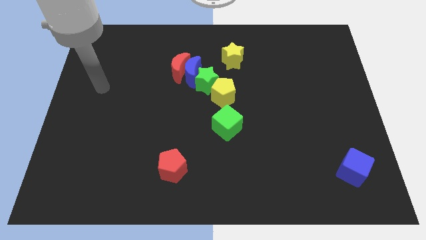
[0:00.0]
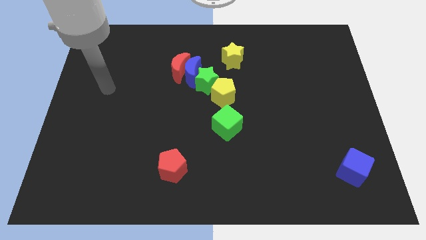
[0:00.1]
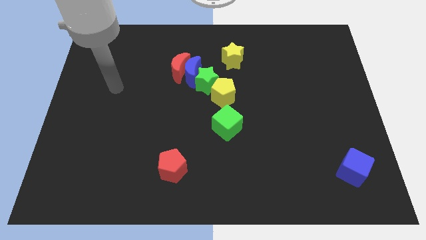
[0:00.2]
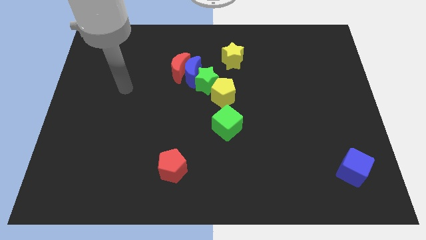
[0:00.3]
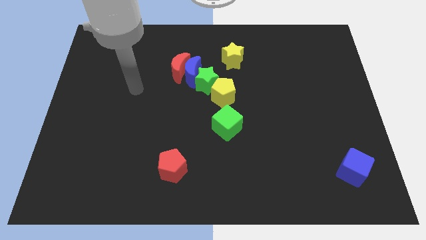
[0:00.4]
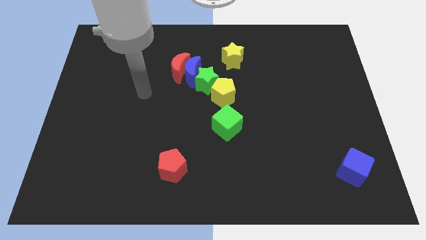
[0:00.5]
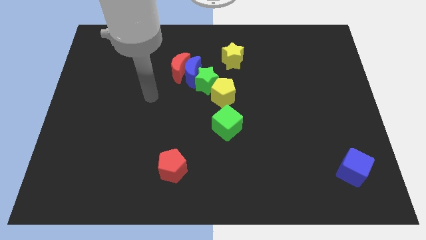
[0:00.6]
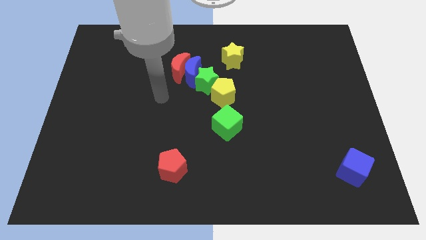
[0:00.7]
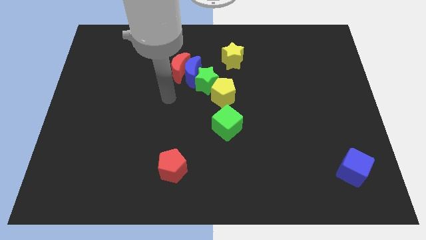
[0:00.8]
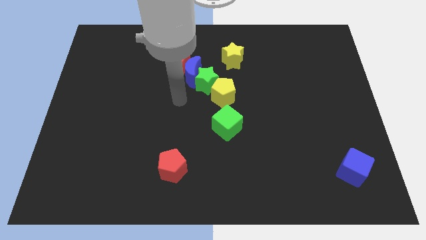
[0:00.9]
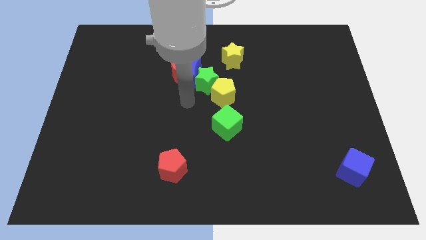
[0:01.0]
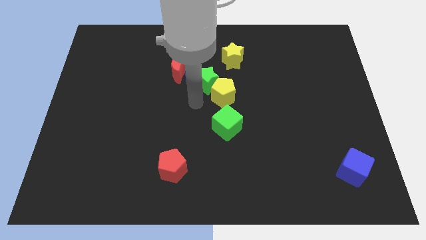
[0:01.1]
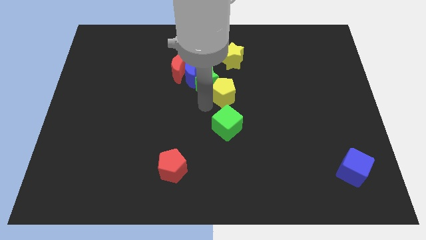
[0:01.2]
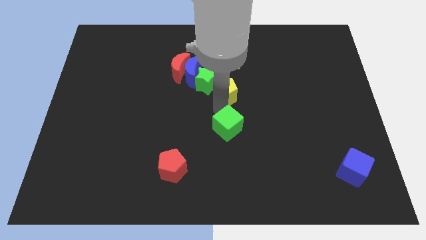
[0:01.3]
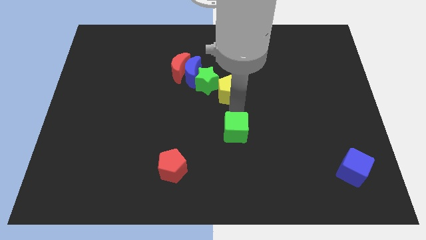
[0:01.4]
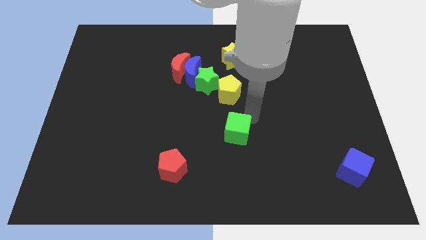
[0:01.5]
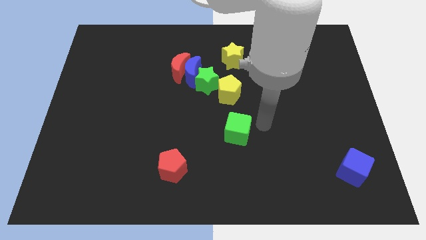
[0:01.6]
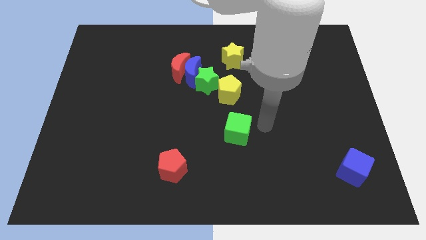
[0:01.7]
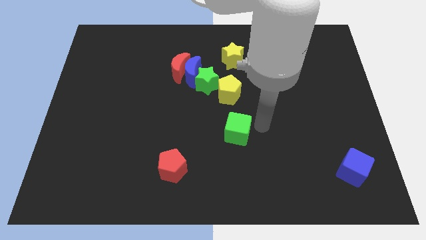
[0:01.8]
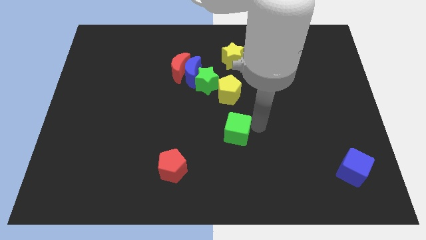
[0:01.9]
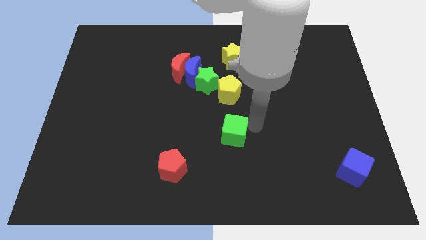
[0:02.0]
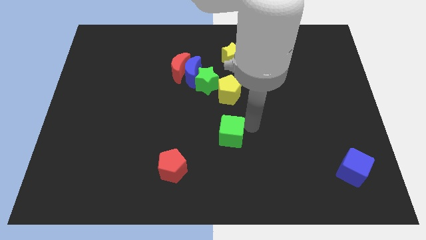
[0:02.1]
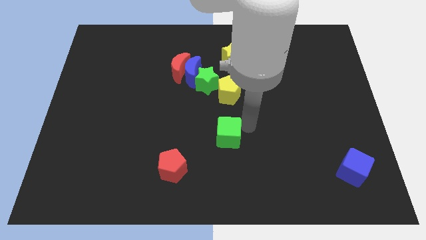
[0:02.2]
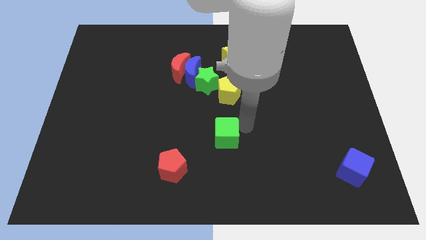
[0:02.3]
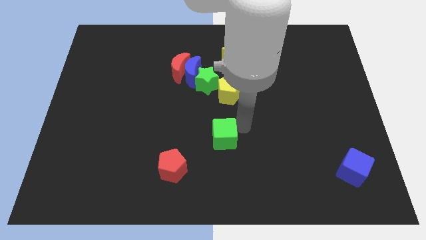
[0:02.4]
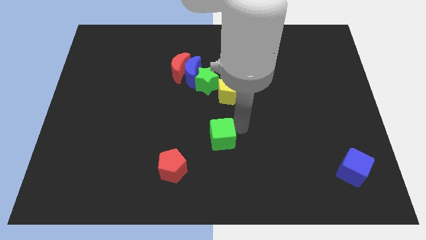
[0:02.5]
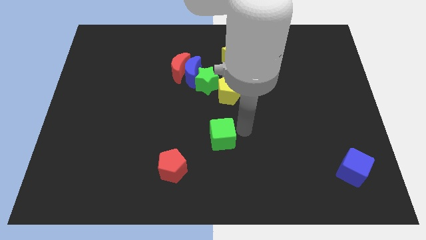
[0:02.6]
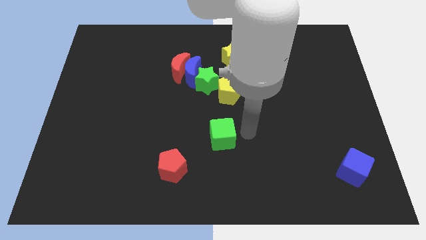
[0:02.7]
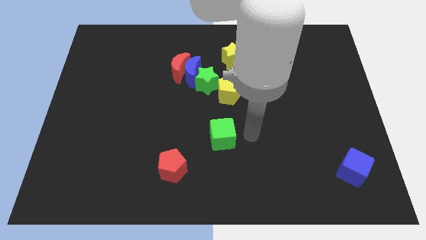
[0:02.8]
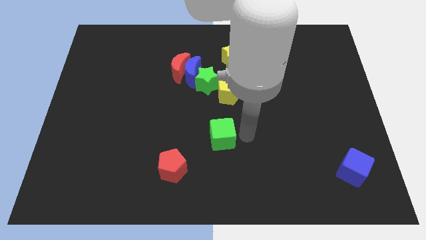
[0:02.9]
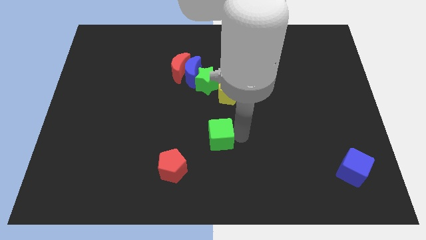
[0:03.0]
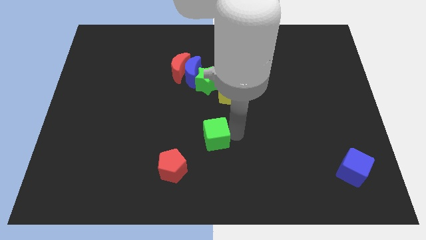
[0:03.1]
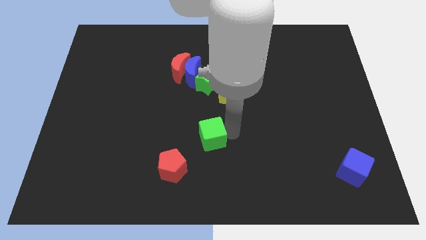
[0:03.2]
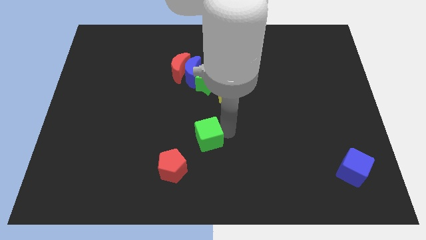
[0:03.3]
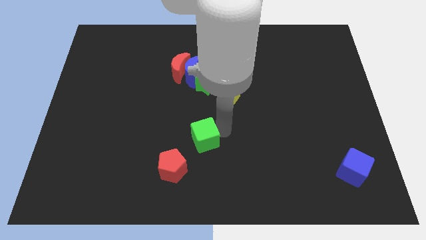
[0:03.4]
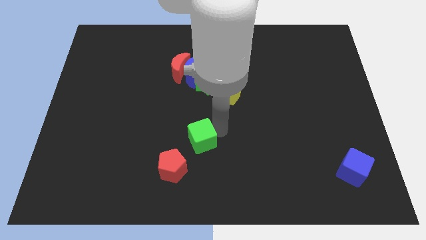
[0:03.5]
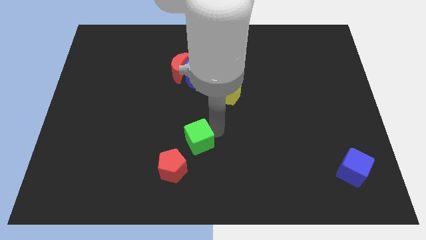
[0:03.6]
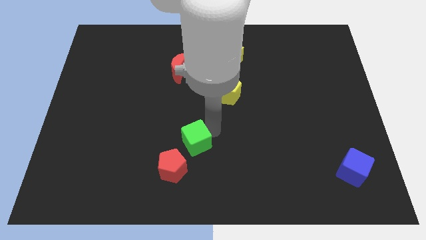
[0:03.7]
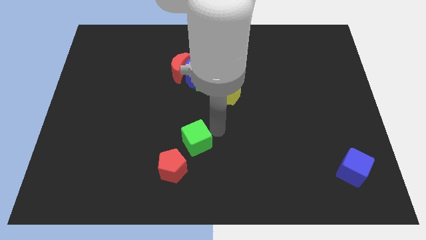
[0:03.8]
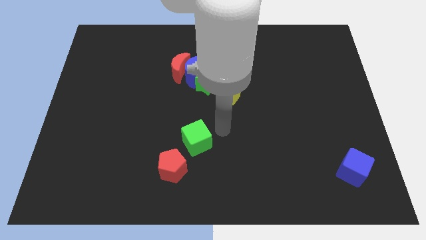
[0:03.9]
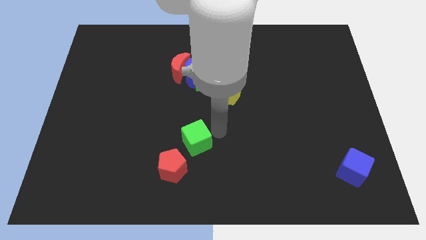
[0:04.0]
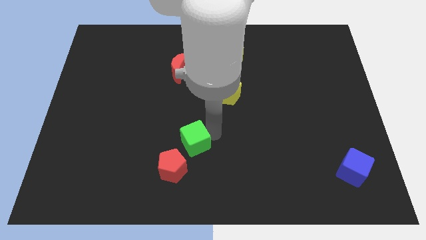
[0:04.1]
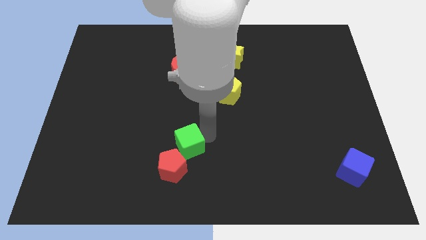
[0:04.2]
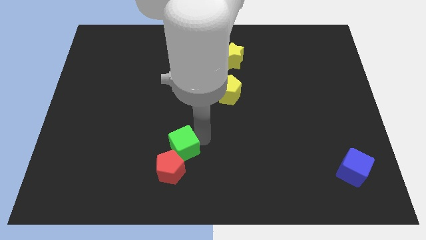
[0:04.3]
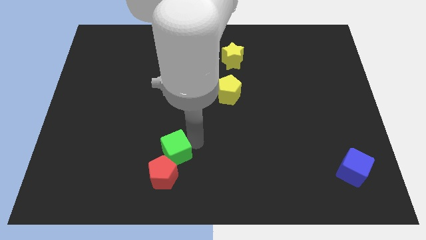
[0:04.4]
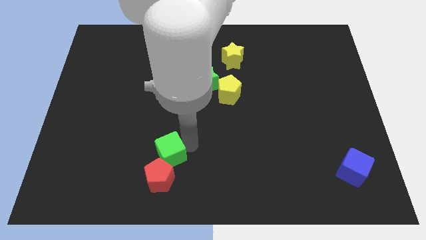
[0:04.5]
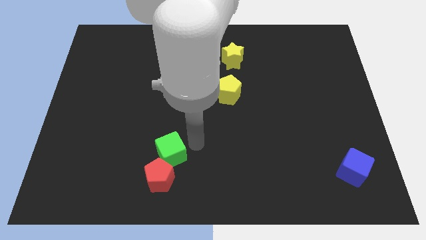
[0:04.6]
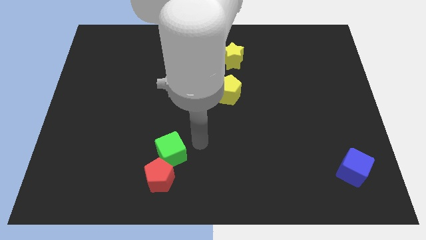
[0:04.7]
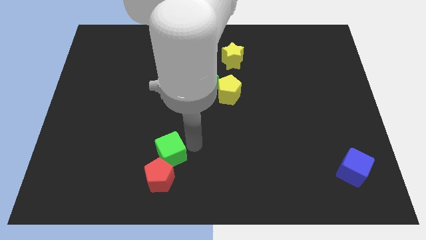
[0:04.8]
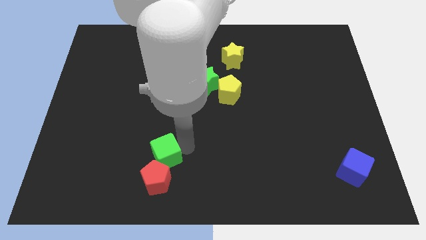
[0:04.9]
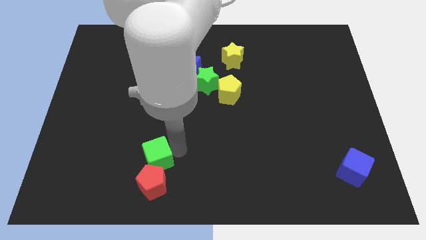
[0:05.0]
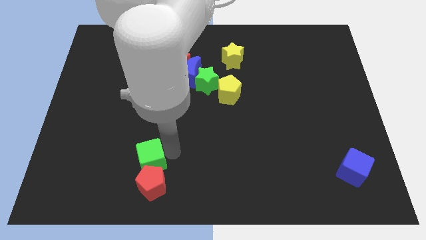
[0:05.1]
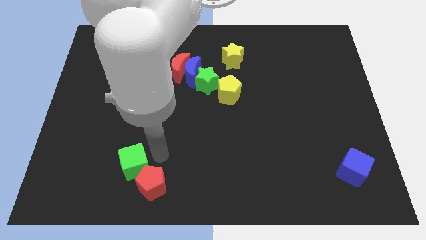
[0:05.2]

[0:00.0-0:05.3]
put the green cube left of the red pentagon

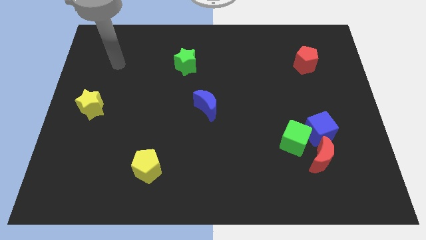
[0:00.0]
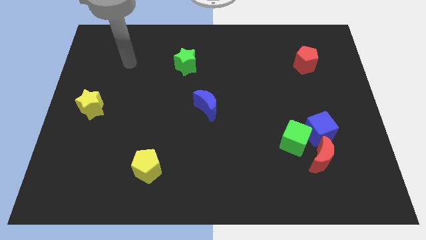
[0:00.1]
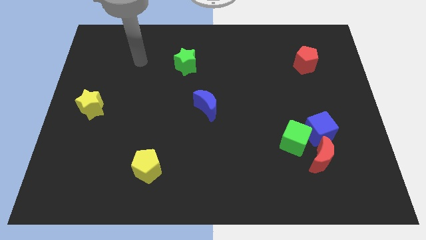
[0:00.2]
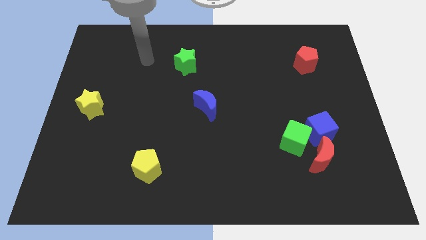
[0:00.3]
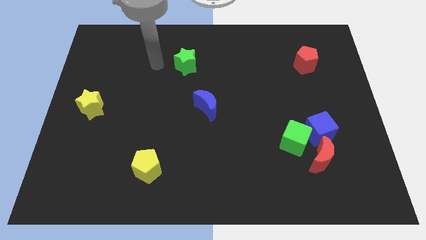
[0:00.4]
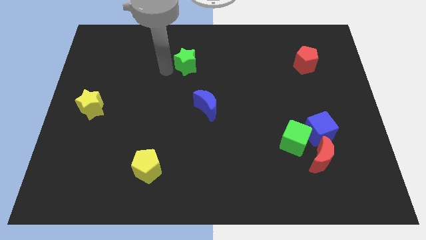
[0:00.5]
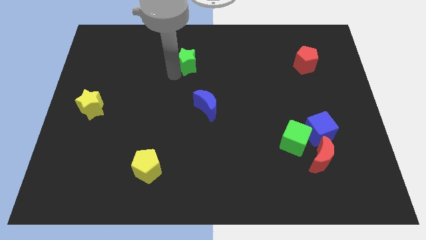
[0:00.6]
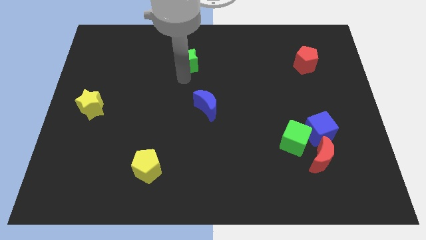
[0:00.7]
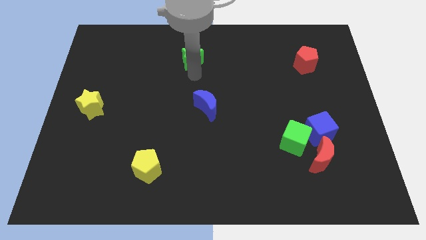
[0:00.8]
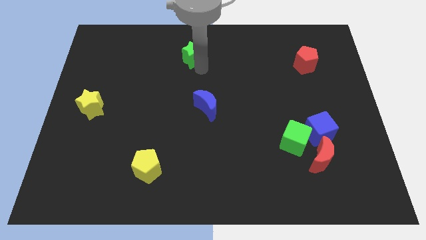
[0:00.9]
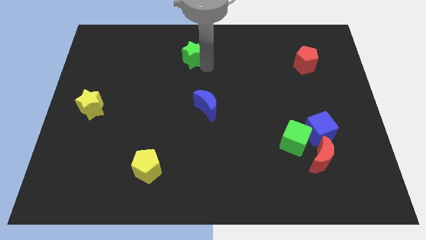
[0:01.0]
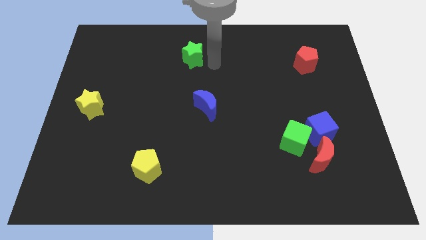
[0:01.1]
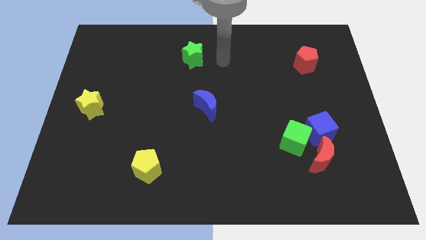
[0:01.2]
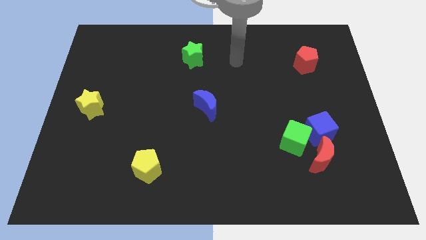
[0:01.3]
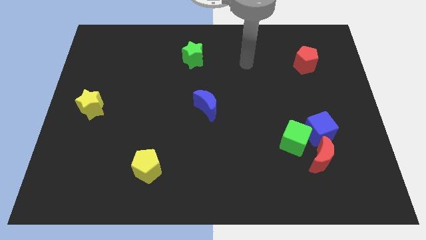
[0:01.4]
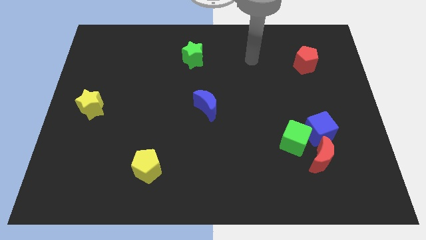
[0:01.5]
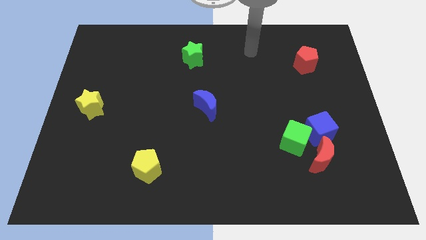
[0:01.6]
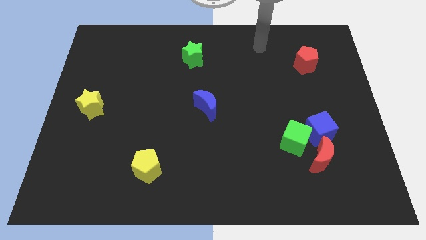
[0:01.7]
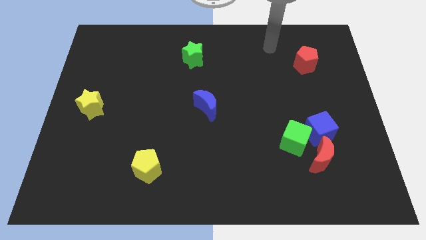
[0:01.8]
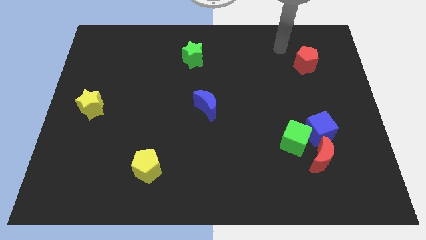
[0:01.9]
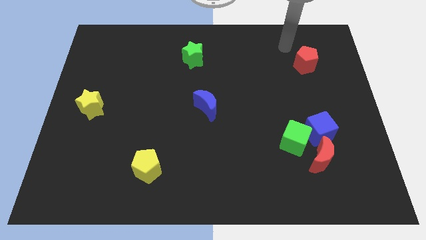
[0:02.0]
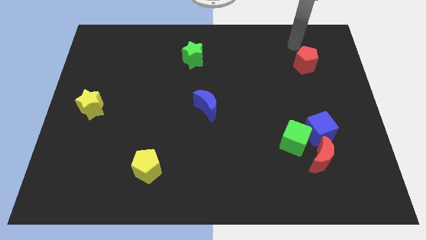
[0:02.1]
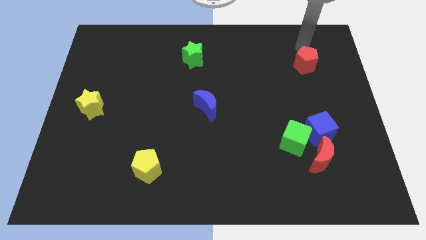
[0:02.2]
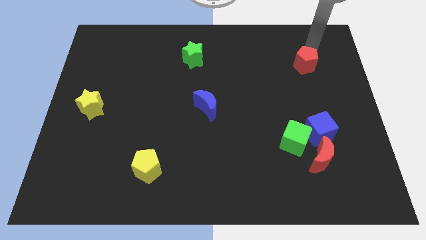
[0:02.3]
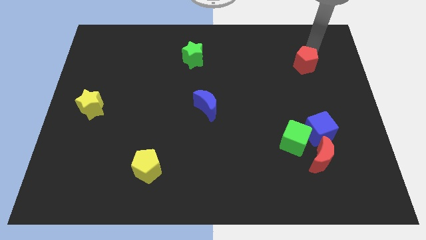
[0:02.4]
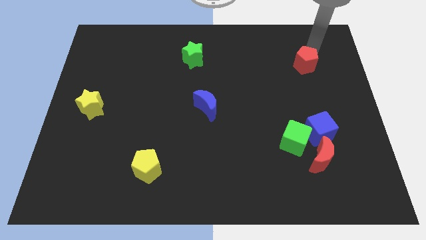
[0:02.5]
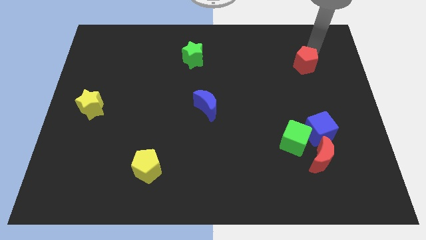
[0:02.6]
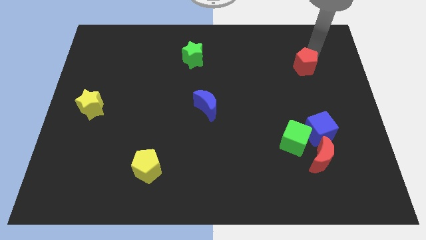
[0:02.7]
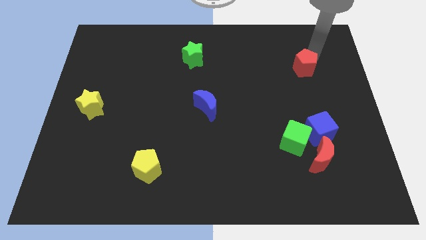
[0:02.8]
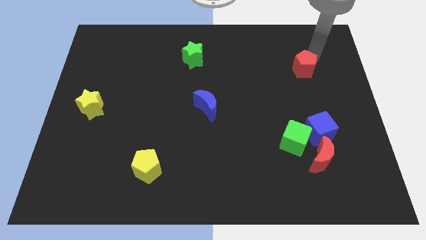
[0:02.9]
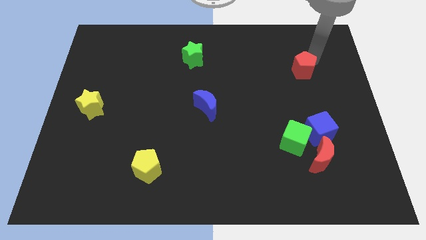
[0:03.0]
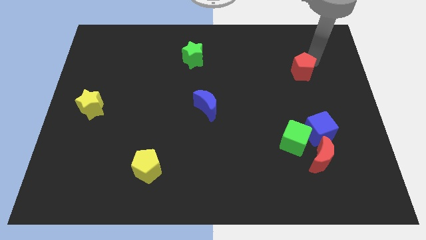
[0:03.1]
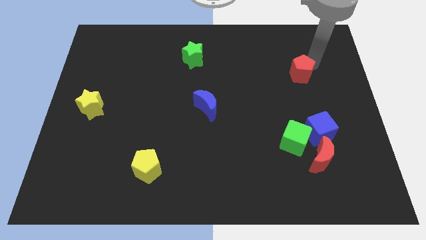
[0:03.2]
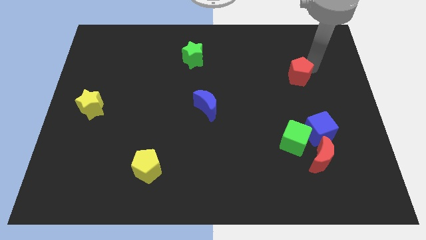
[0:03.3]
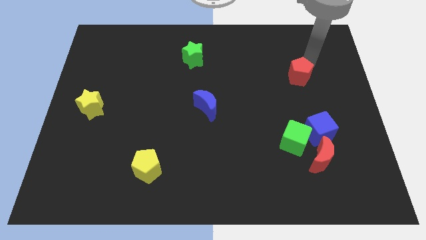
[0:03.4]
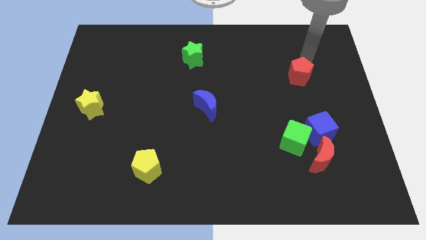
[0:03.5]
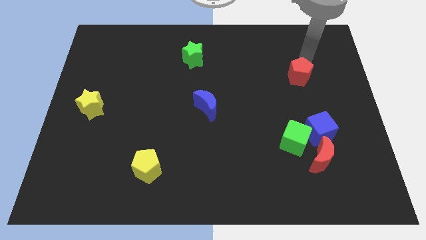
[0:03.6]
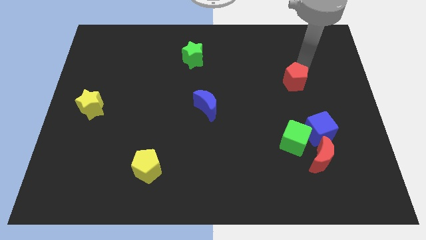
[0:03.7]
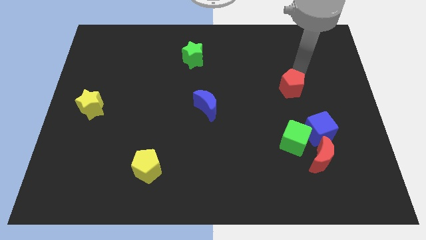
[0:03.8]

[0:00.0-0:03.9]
put the red pentagon to the top of the green cube
